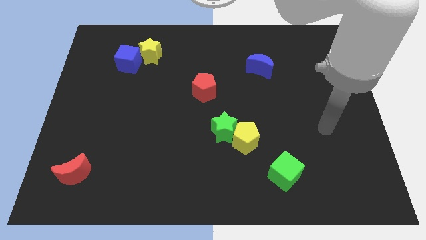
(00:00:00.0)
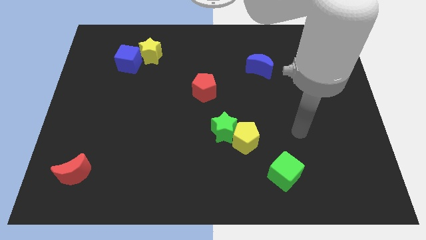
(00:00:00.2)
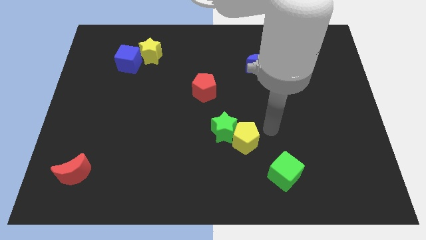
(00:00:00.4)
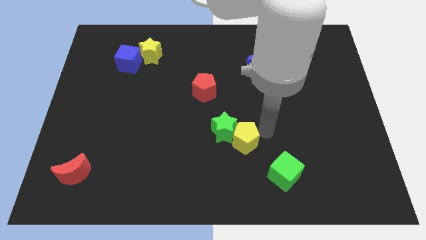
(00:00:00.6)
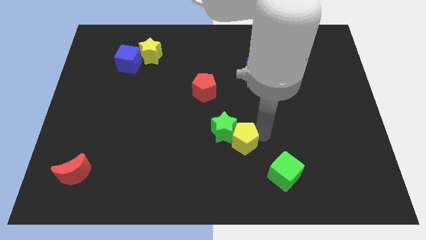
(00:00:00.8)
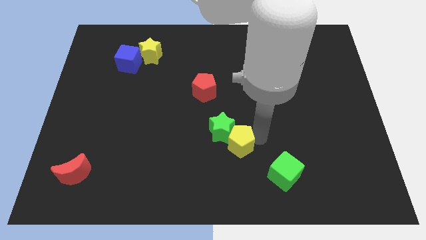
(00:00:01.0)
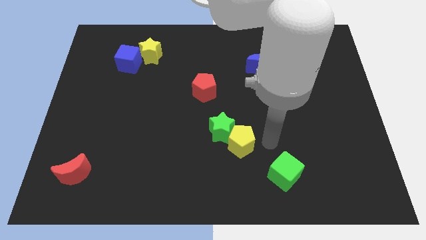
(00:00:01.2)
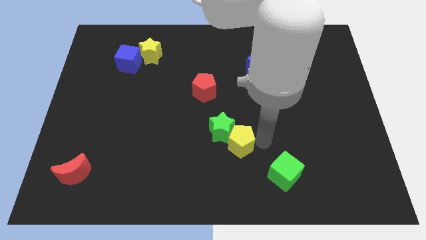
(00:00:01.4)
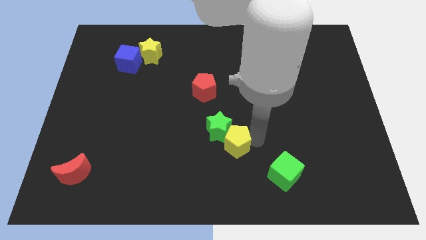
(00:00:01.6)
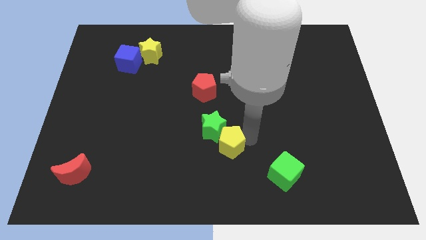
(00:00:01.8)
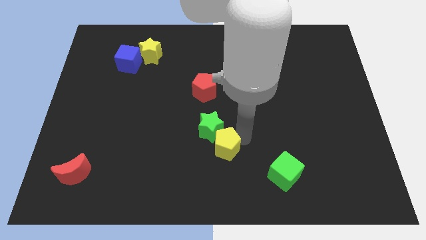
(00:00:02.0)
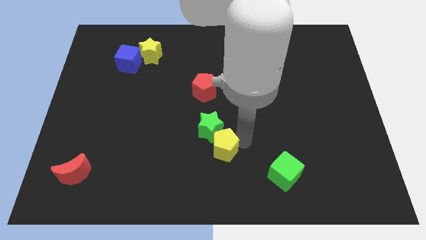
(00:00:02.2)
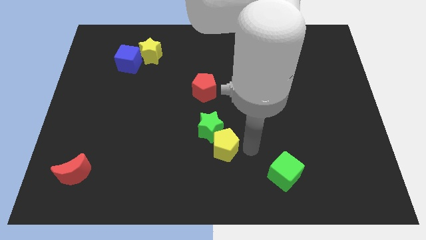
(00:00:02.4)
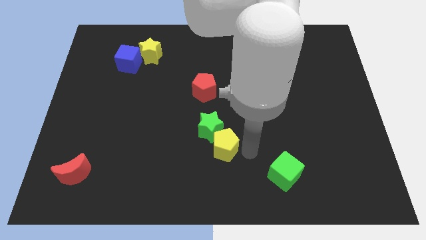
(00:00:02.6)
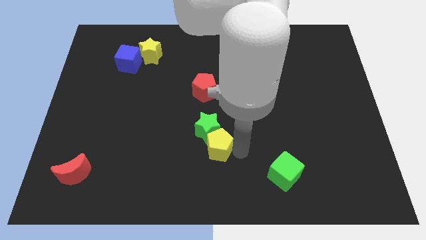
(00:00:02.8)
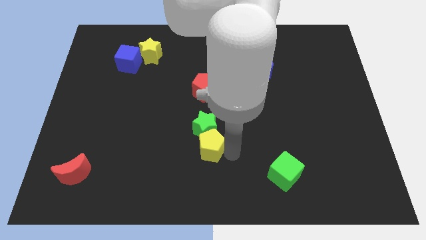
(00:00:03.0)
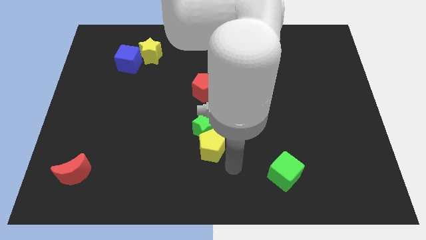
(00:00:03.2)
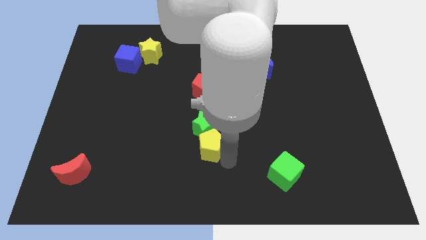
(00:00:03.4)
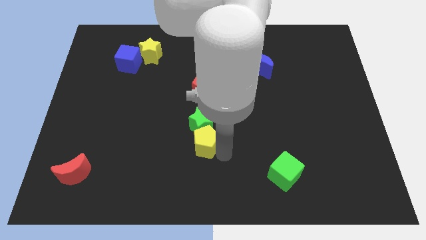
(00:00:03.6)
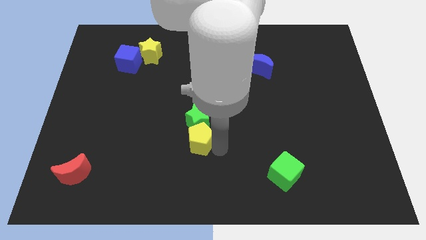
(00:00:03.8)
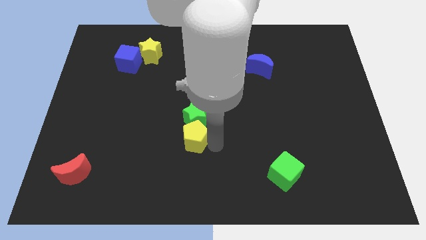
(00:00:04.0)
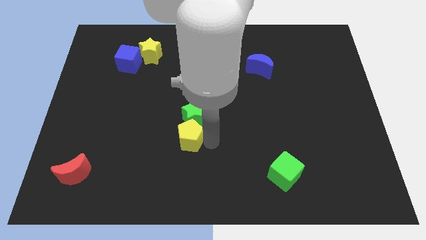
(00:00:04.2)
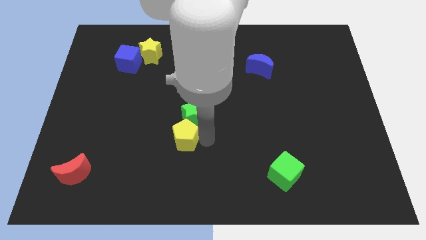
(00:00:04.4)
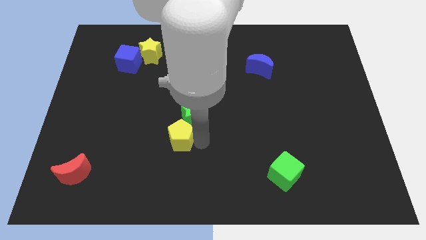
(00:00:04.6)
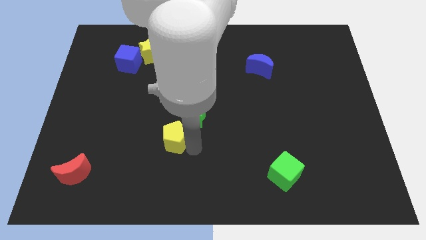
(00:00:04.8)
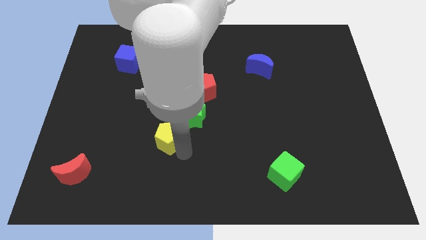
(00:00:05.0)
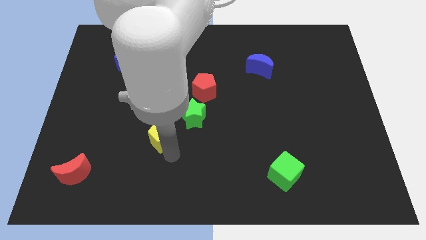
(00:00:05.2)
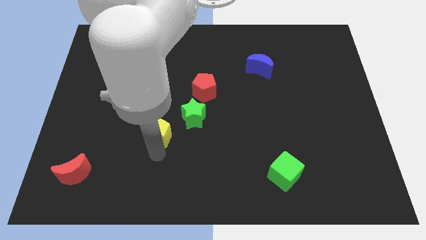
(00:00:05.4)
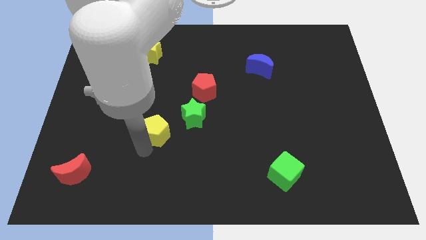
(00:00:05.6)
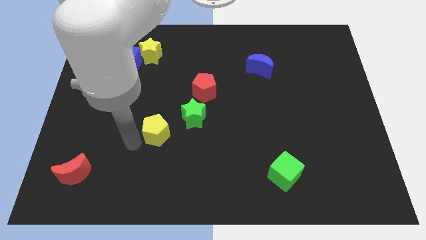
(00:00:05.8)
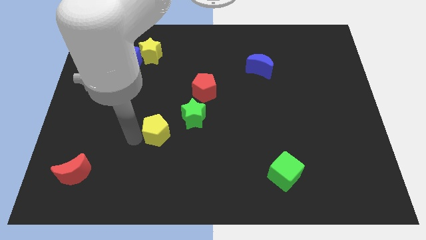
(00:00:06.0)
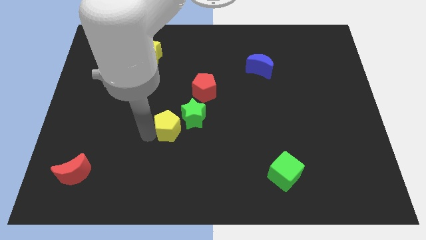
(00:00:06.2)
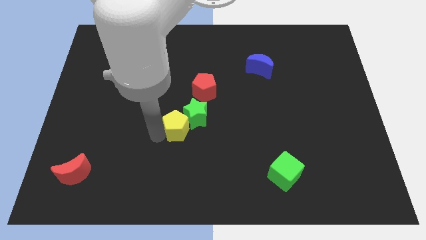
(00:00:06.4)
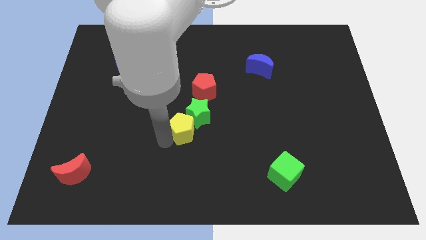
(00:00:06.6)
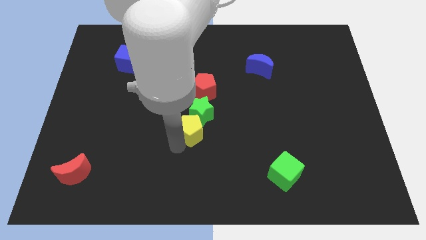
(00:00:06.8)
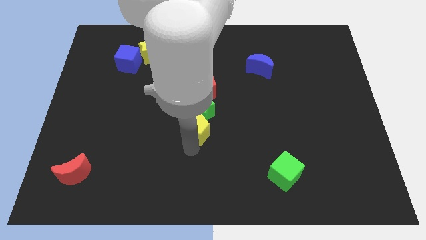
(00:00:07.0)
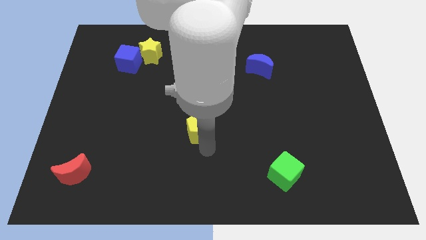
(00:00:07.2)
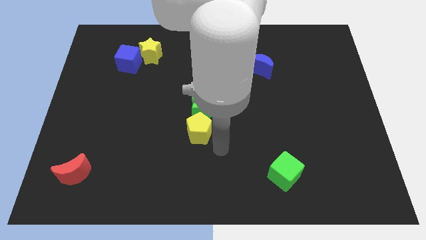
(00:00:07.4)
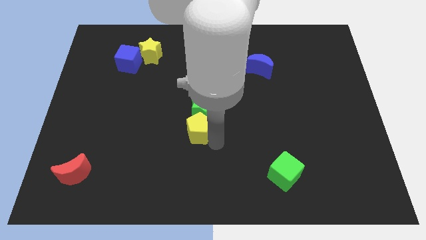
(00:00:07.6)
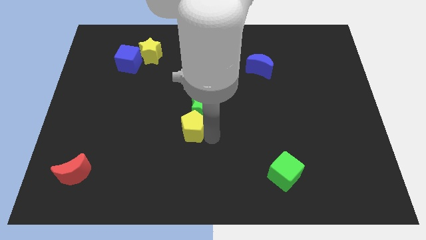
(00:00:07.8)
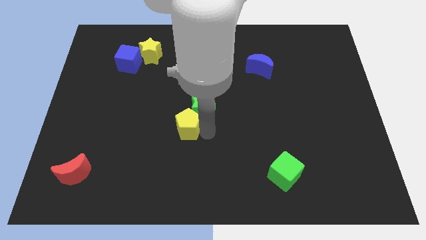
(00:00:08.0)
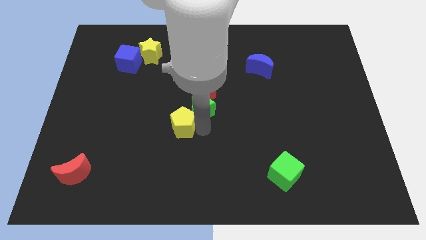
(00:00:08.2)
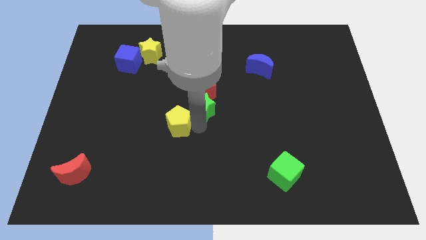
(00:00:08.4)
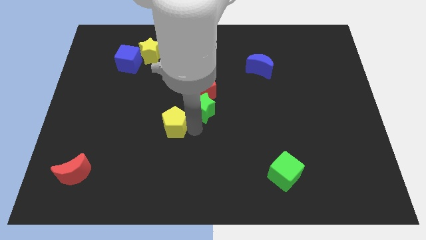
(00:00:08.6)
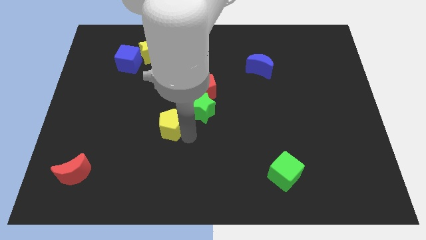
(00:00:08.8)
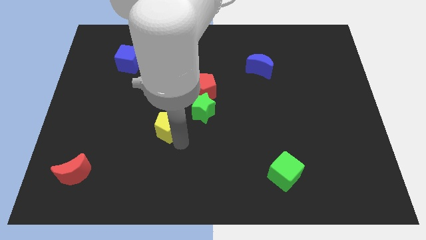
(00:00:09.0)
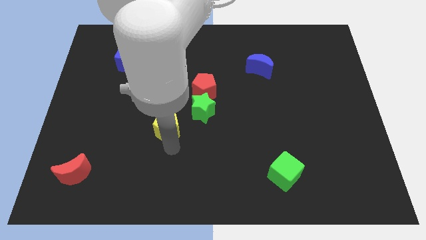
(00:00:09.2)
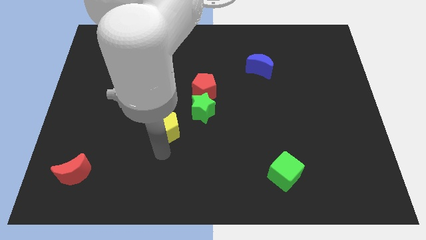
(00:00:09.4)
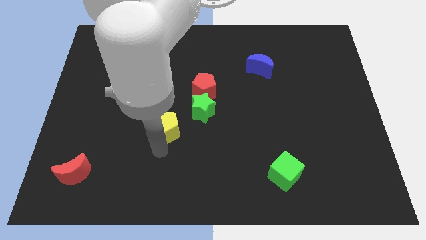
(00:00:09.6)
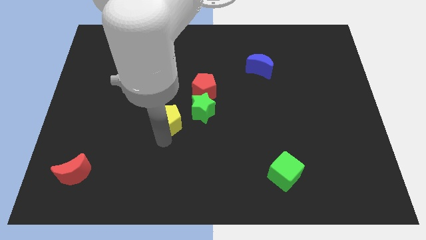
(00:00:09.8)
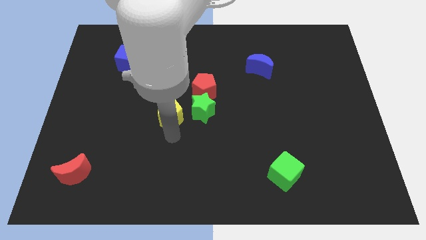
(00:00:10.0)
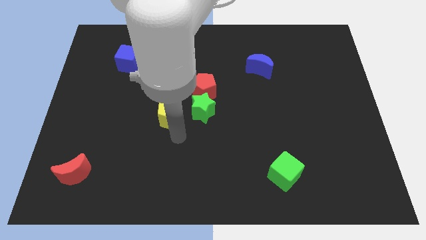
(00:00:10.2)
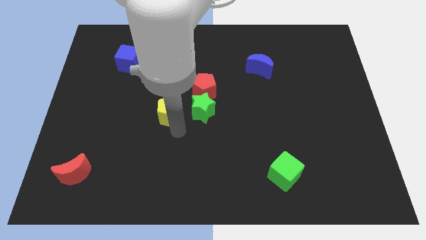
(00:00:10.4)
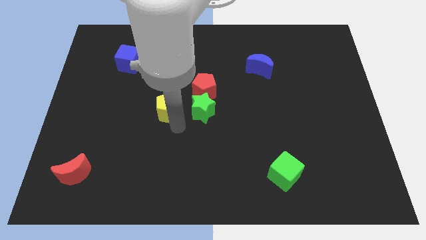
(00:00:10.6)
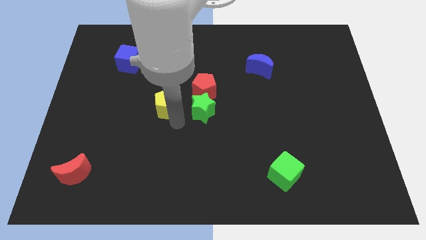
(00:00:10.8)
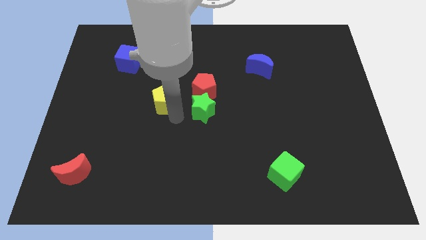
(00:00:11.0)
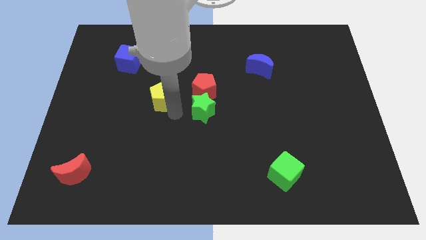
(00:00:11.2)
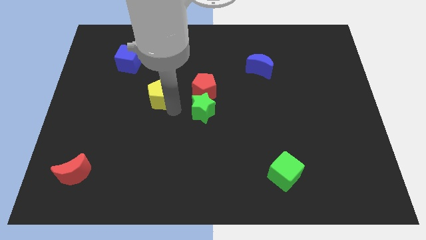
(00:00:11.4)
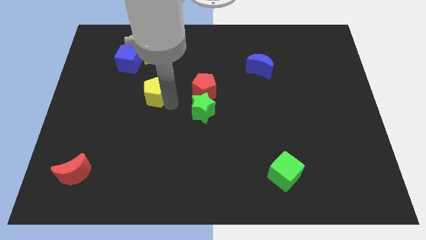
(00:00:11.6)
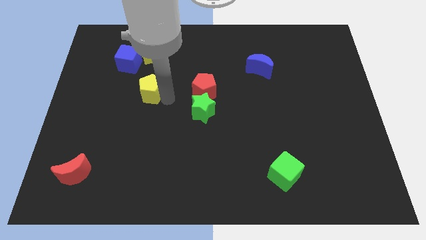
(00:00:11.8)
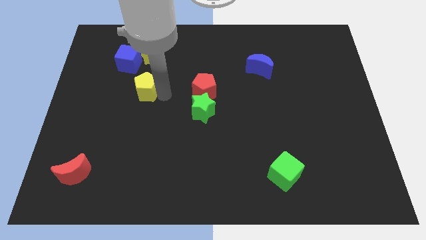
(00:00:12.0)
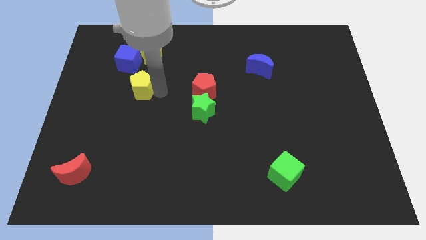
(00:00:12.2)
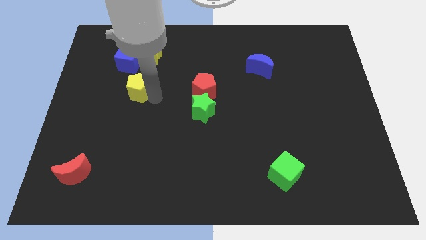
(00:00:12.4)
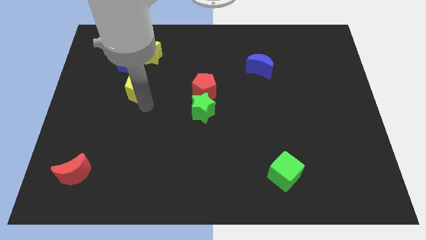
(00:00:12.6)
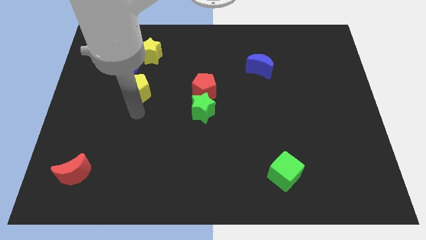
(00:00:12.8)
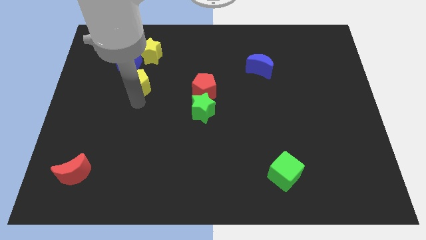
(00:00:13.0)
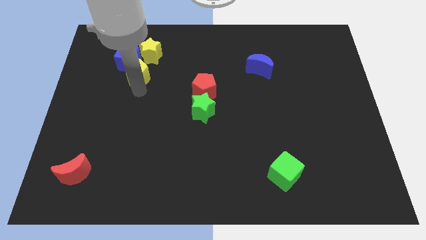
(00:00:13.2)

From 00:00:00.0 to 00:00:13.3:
slide the yellow pentagon close to the blue cube

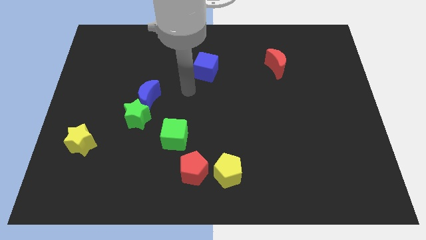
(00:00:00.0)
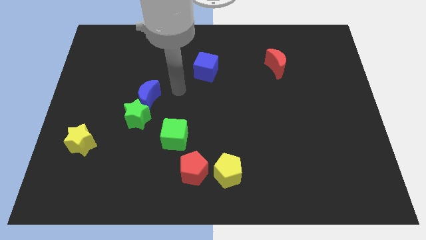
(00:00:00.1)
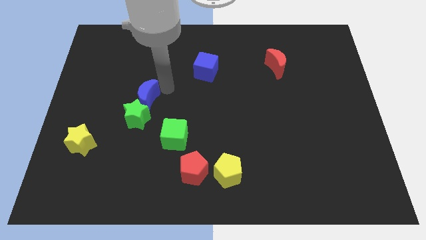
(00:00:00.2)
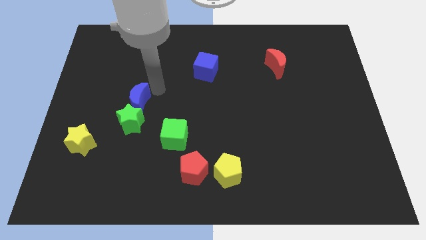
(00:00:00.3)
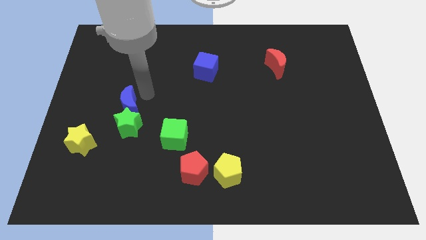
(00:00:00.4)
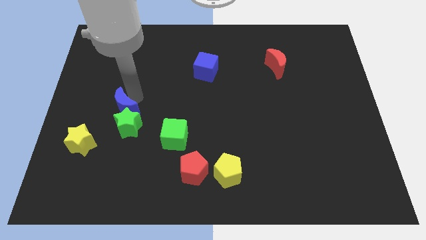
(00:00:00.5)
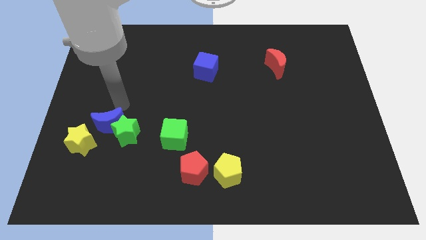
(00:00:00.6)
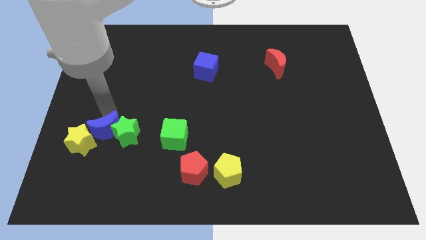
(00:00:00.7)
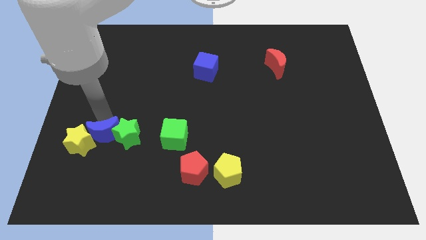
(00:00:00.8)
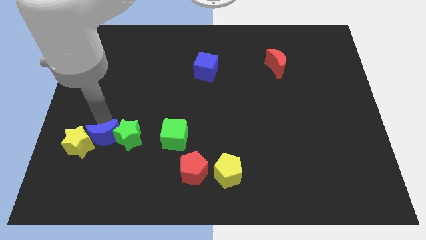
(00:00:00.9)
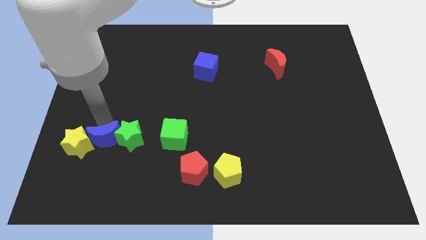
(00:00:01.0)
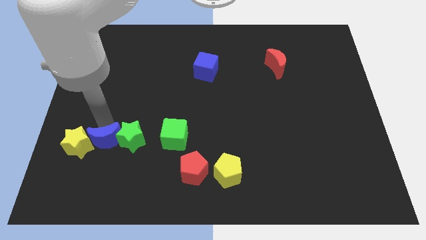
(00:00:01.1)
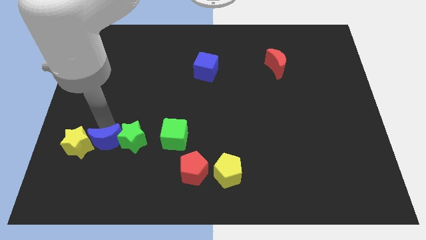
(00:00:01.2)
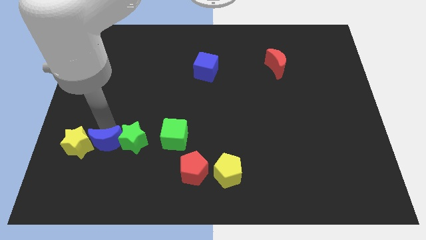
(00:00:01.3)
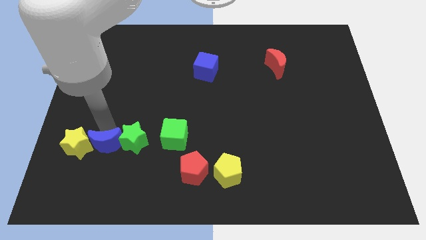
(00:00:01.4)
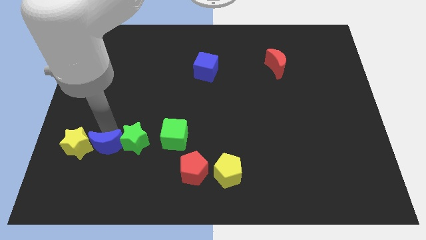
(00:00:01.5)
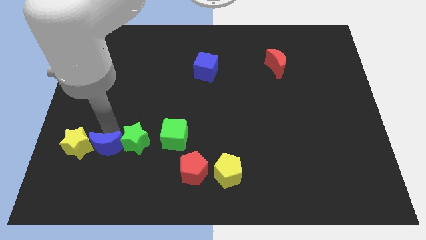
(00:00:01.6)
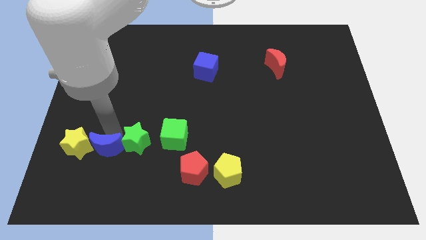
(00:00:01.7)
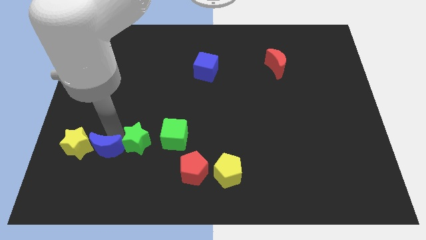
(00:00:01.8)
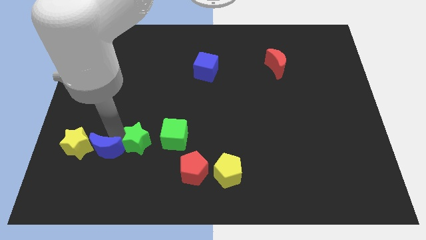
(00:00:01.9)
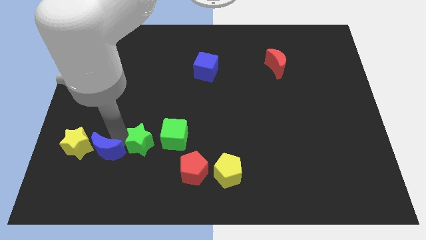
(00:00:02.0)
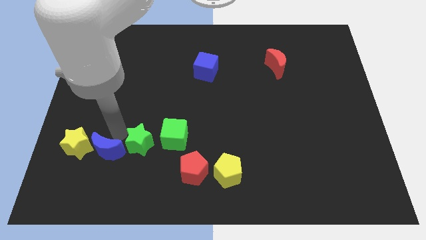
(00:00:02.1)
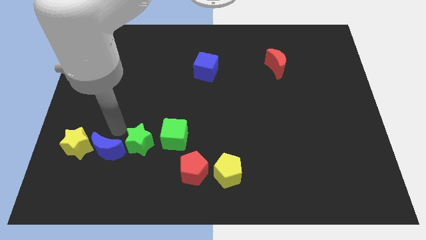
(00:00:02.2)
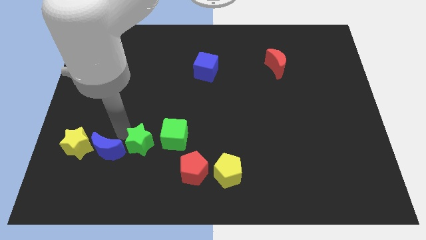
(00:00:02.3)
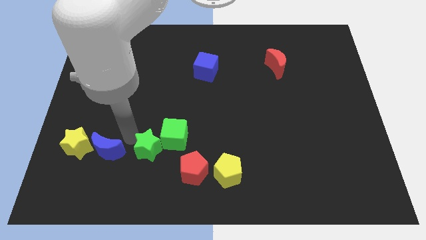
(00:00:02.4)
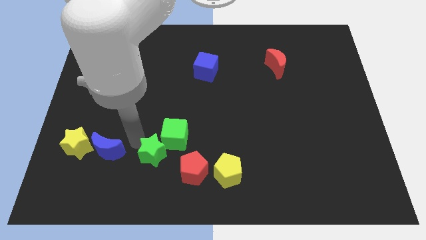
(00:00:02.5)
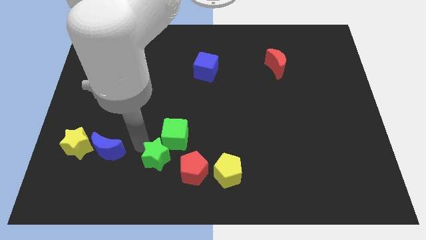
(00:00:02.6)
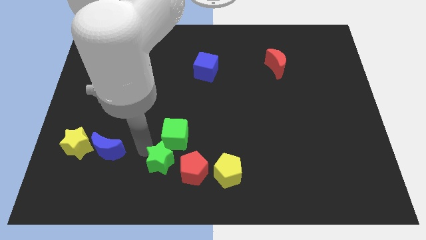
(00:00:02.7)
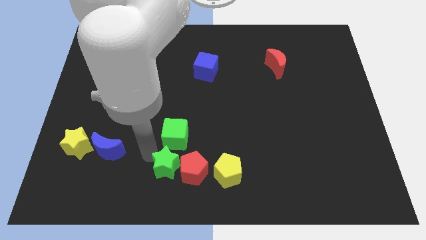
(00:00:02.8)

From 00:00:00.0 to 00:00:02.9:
push the green star towards the red pentagon
